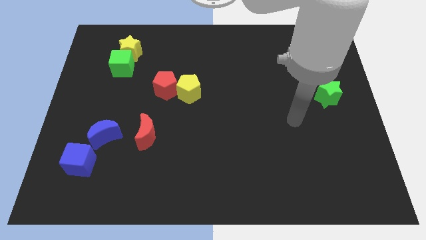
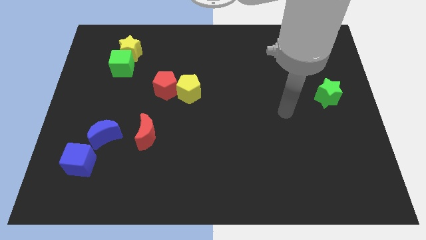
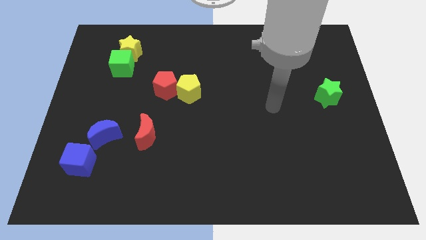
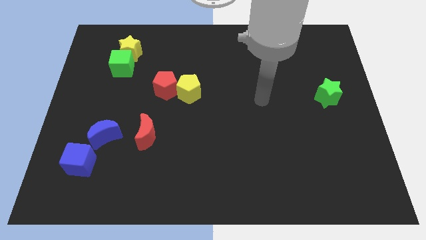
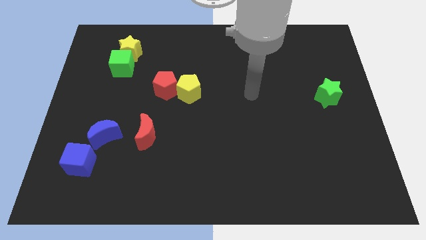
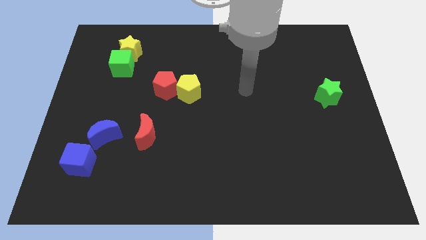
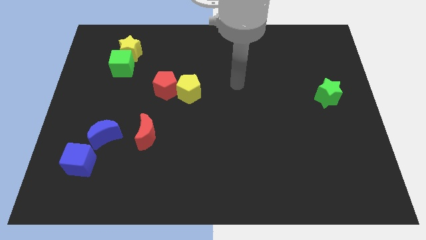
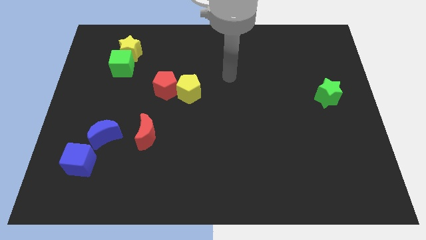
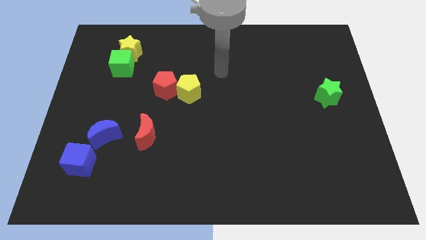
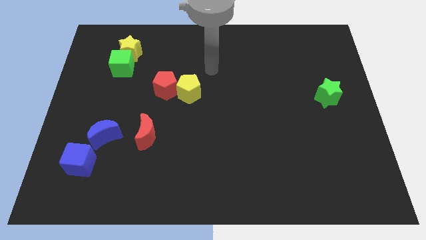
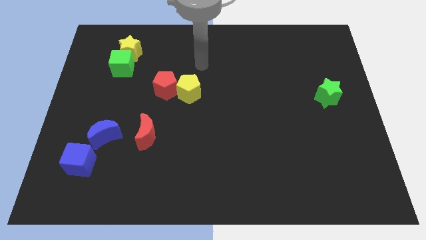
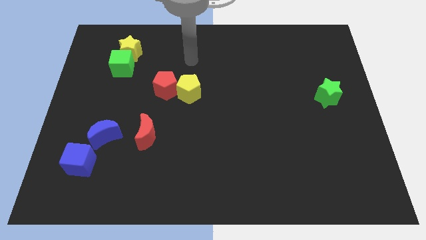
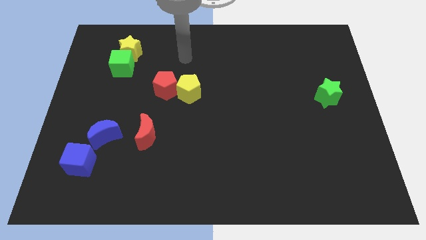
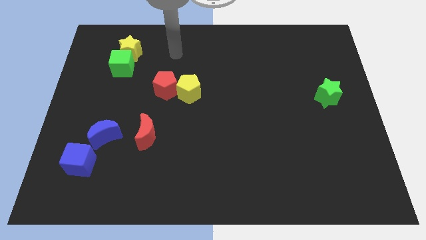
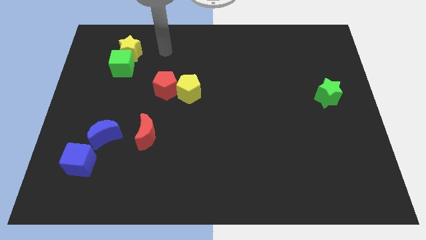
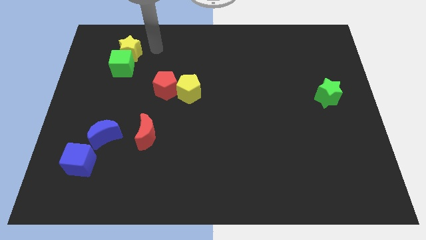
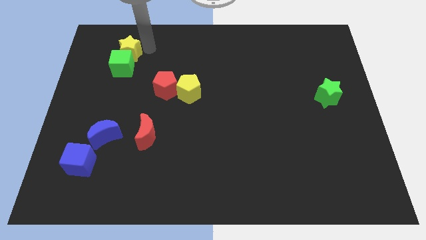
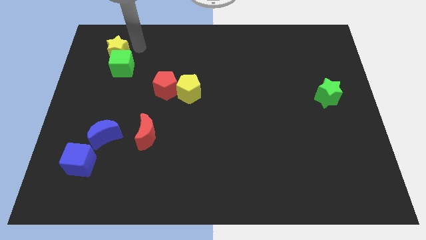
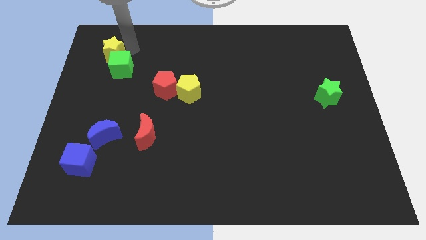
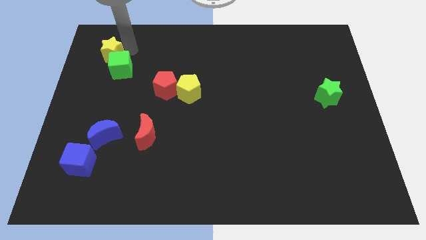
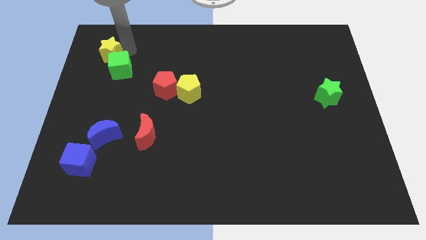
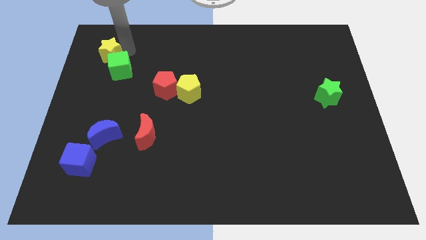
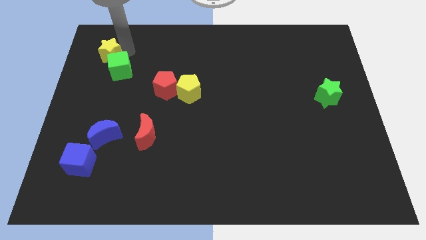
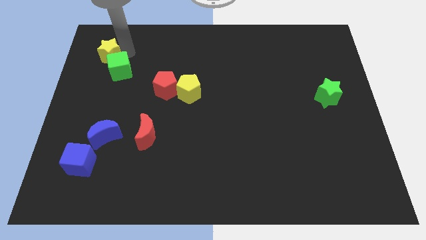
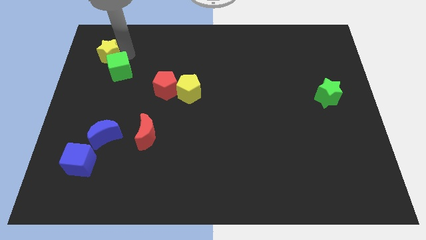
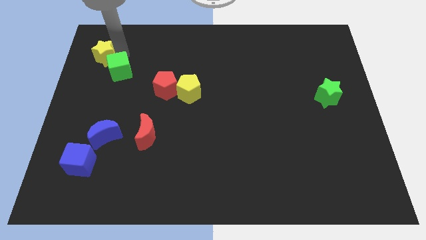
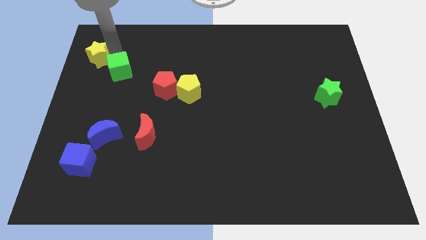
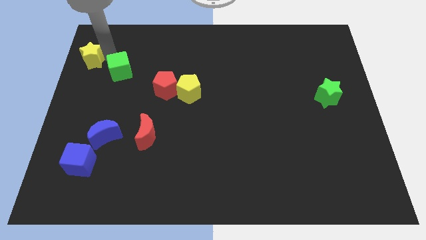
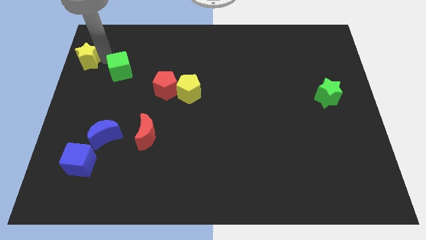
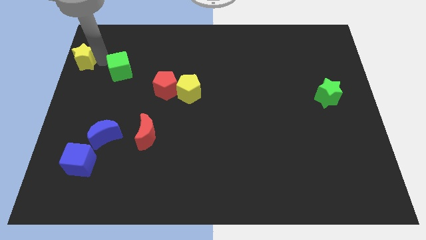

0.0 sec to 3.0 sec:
move the green cube away from the yellow star

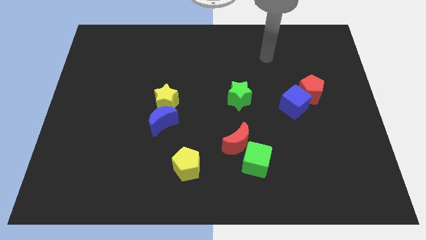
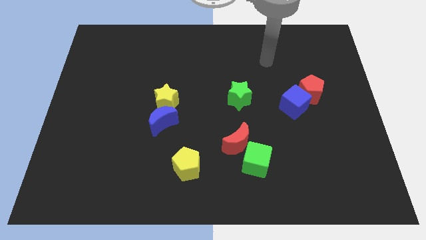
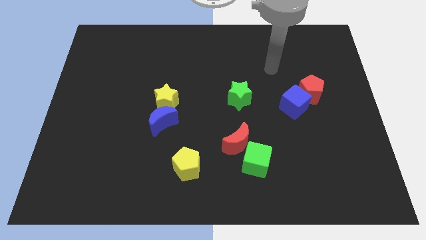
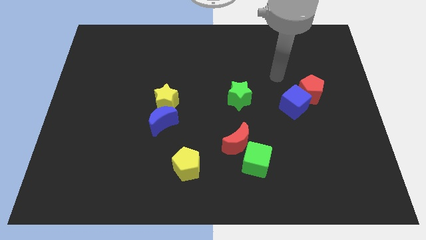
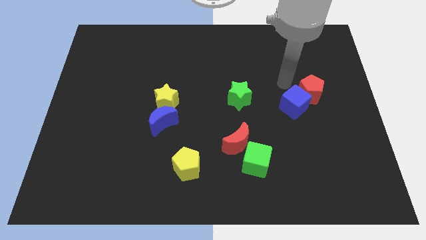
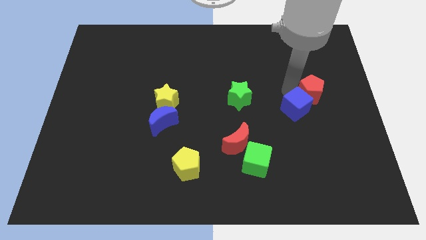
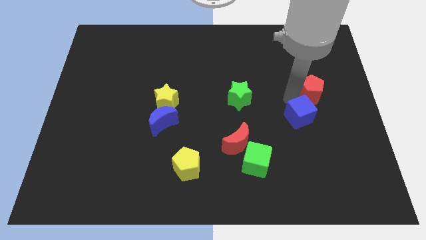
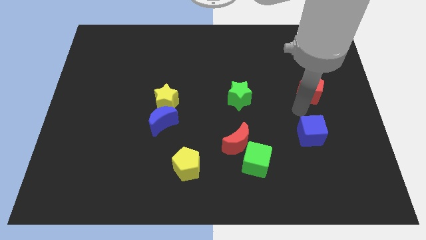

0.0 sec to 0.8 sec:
pull the red pentagon apart from the blue cube

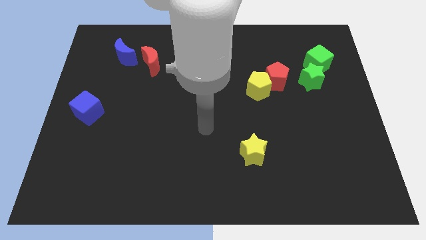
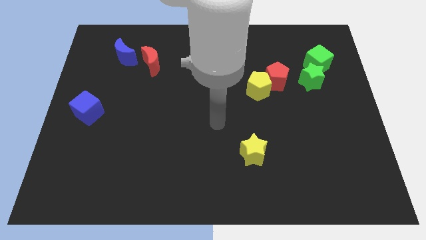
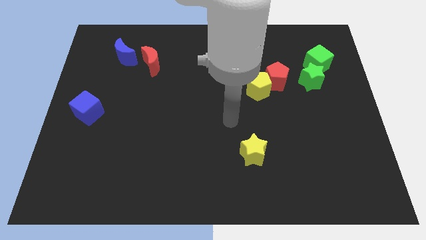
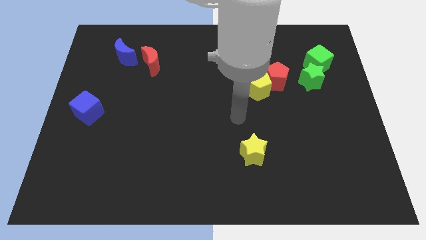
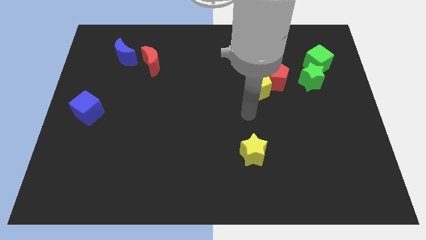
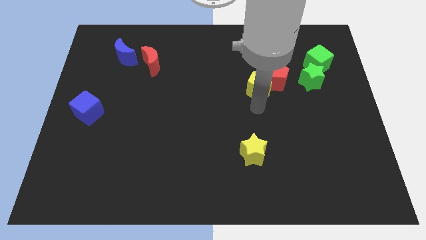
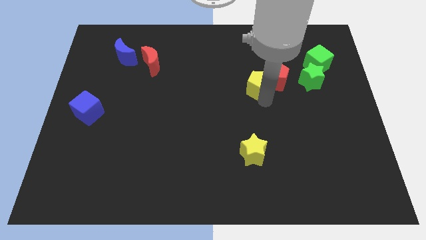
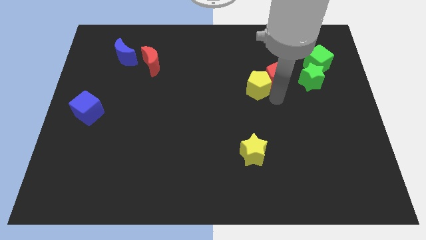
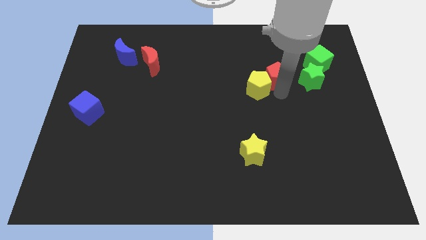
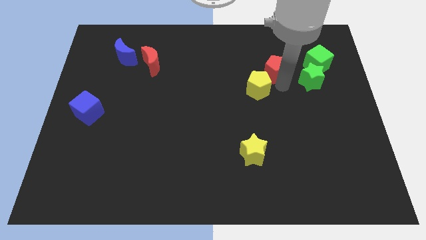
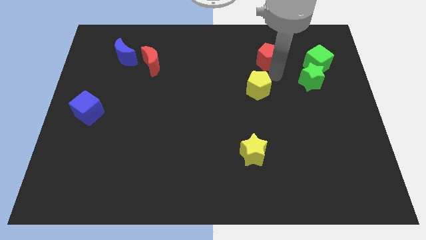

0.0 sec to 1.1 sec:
separate the yellow pentagon from the red pentagon

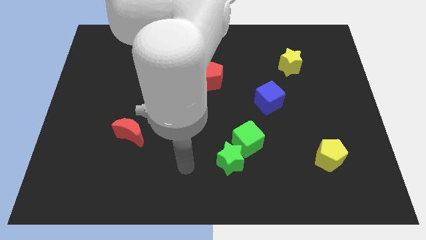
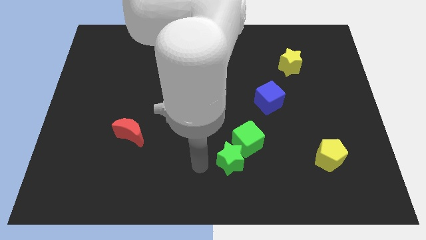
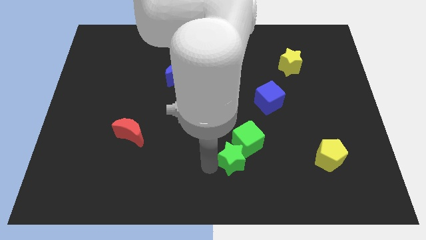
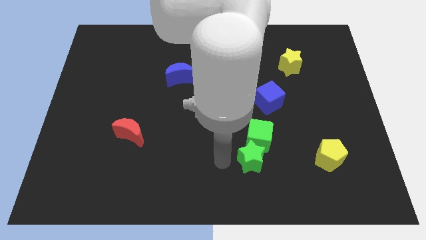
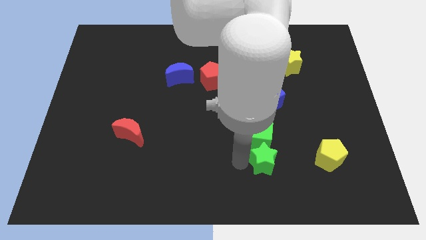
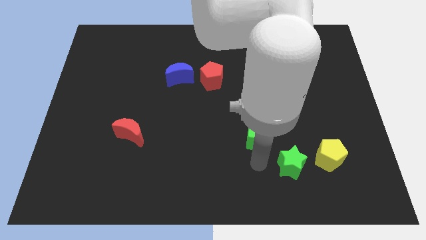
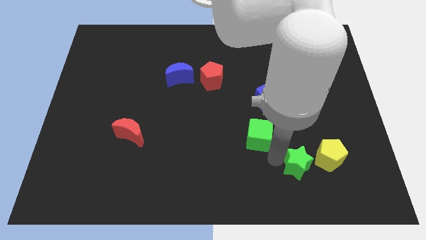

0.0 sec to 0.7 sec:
pull the green cube apart from the green star

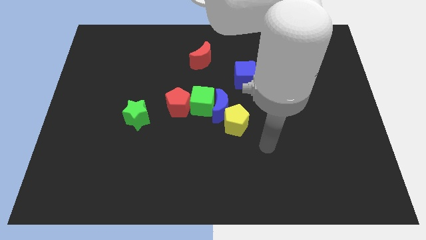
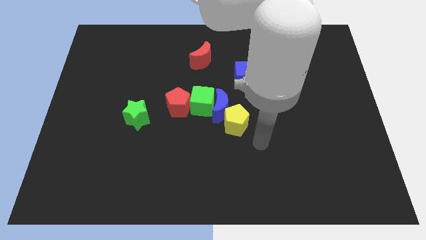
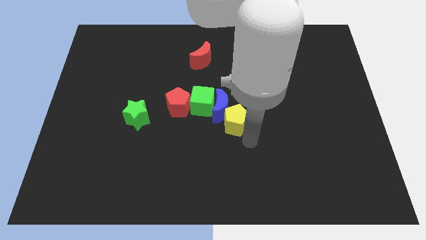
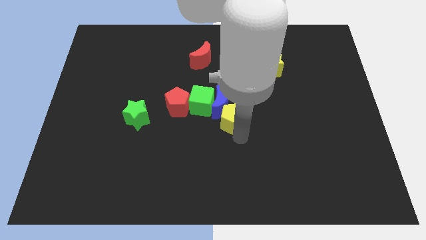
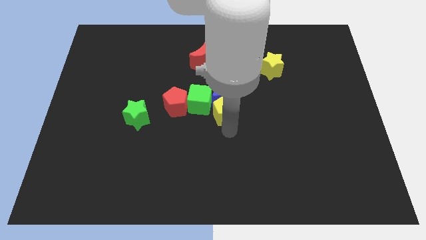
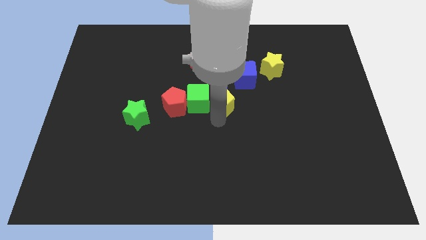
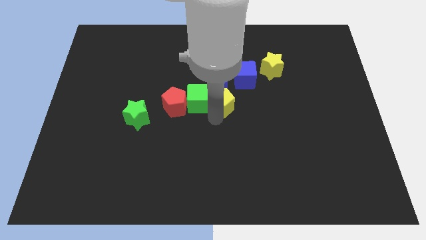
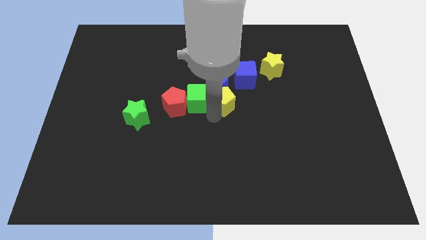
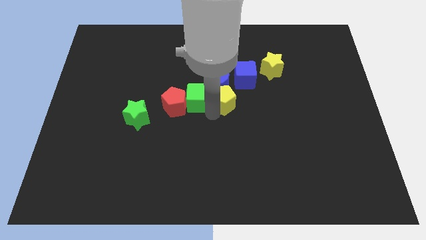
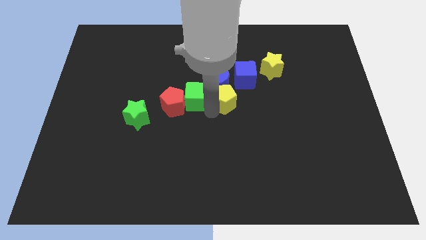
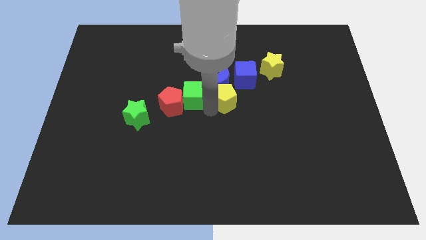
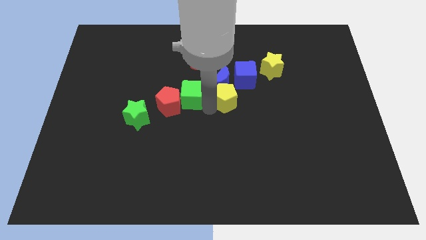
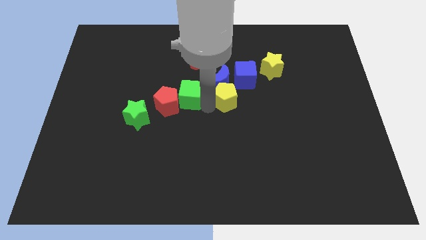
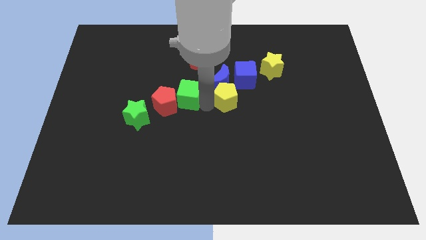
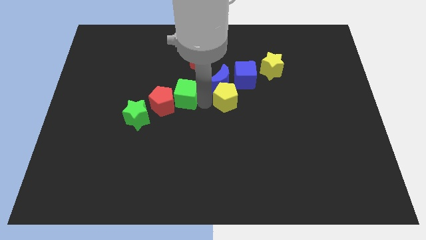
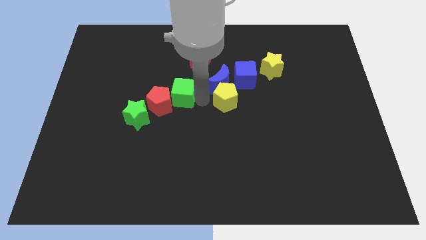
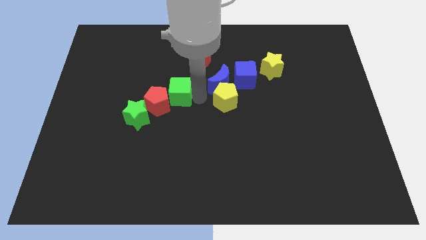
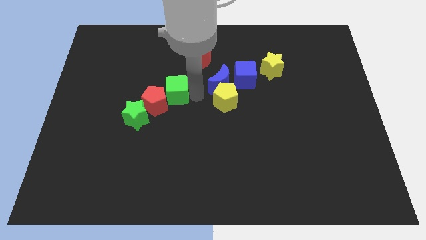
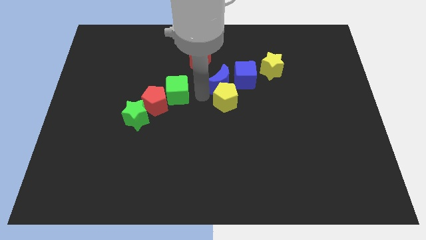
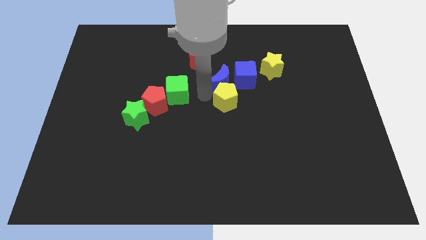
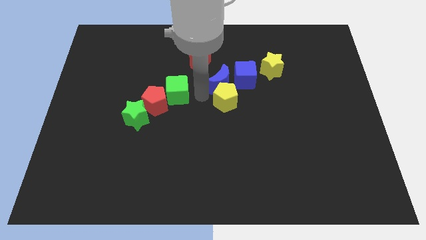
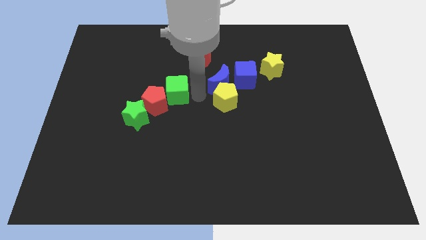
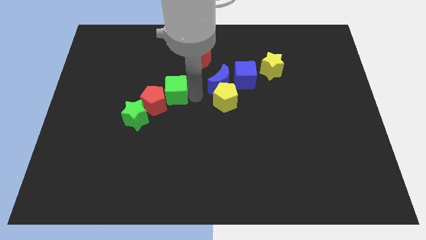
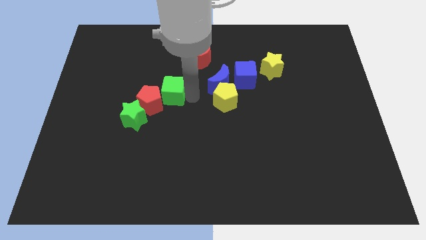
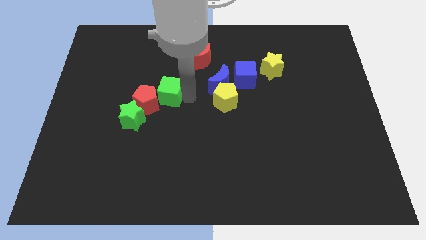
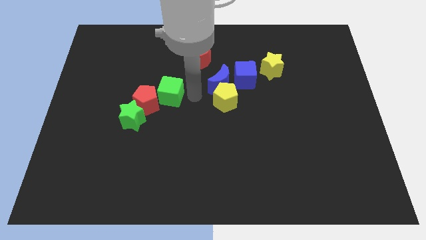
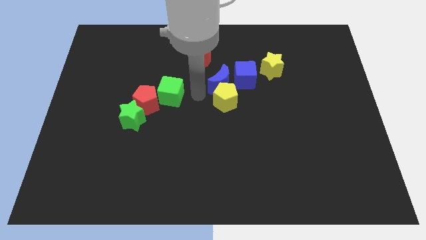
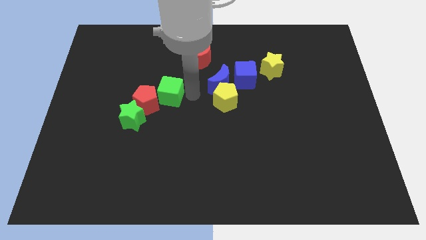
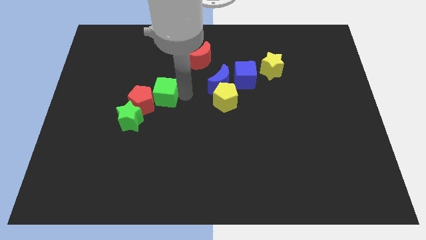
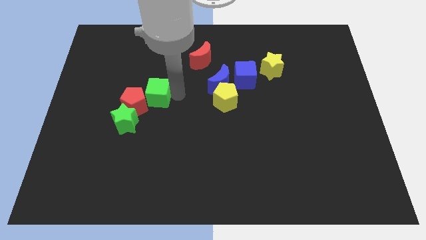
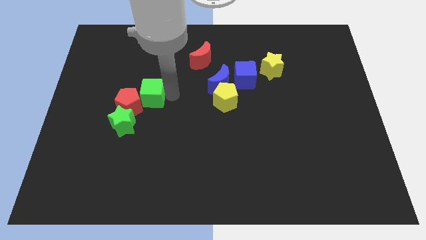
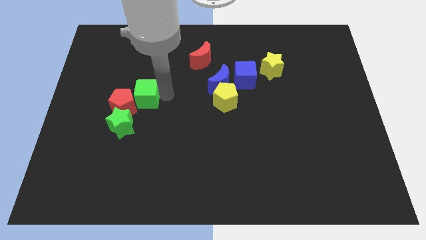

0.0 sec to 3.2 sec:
separate the green cube from the blue moon, red pentagon, and yellow pentagon

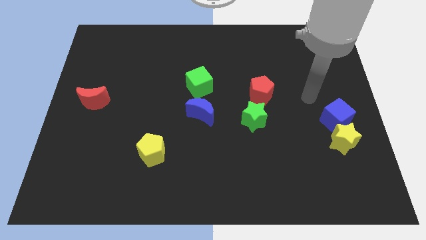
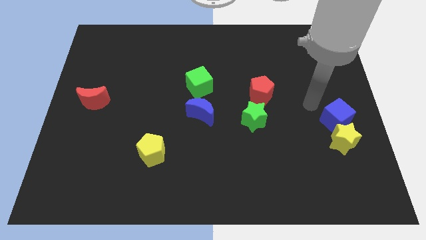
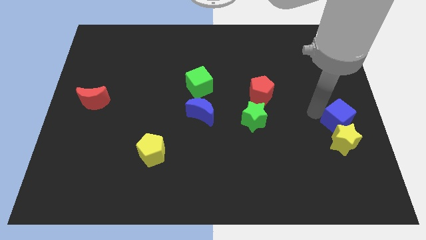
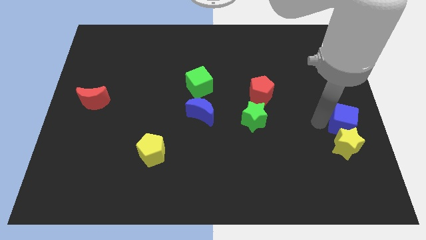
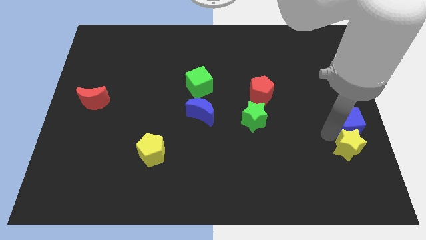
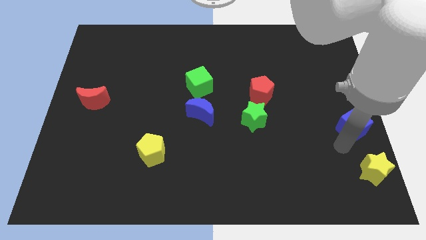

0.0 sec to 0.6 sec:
separate the blue cube from the yellow star
